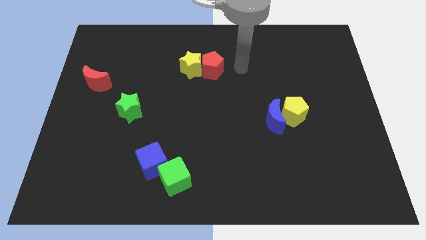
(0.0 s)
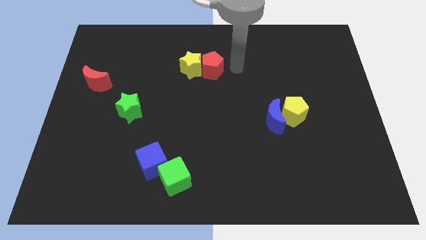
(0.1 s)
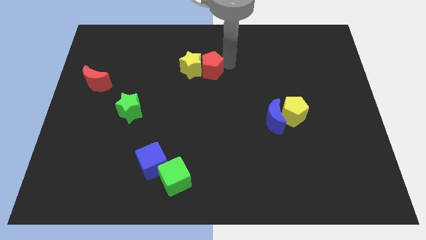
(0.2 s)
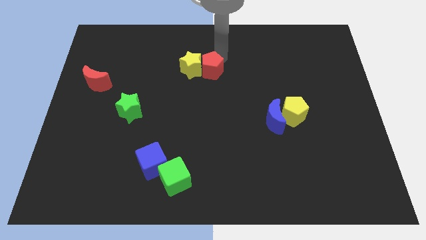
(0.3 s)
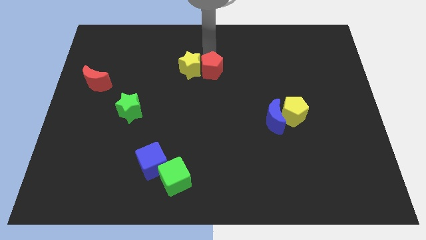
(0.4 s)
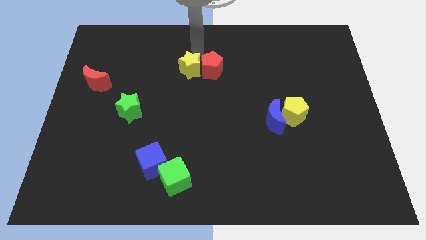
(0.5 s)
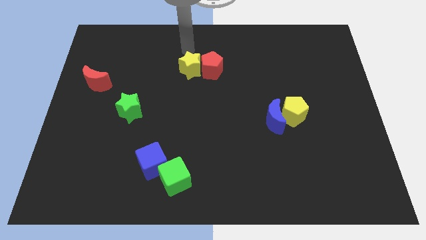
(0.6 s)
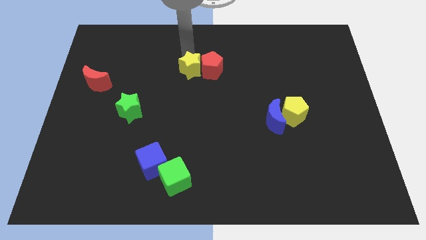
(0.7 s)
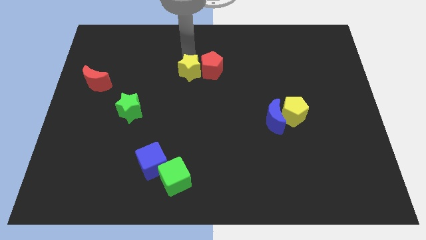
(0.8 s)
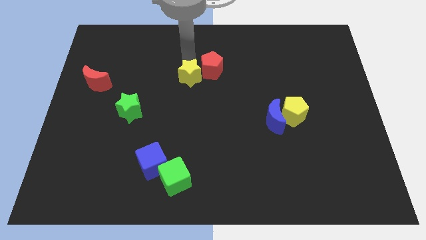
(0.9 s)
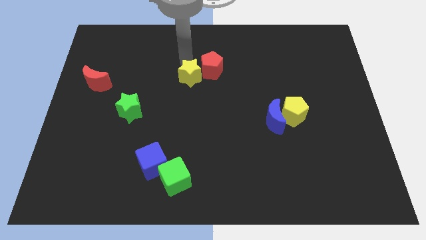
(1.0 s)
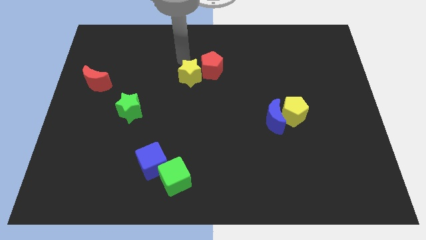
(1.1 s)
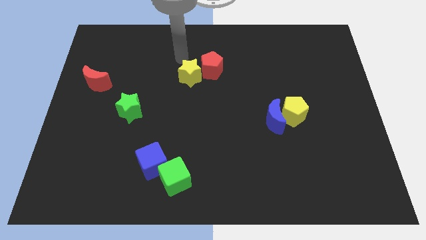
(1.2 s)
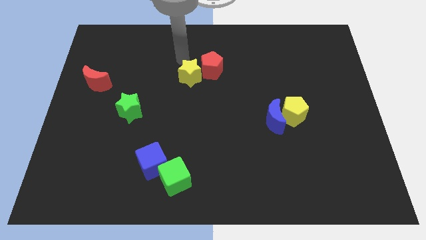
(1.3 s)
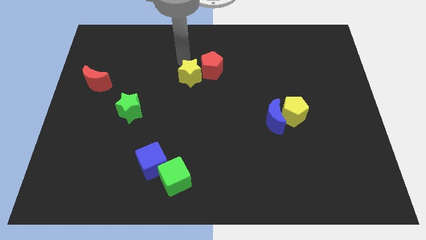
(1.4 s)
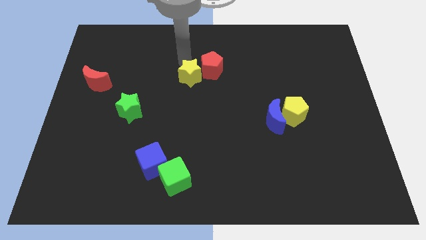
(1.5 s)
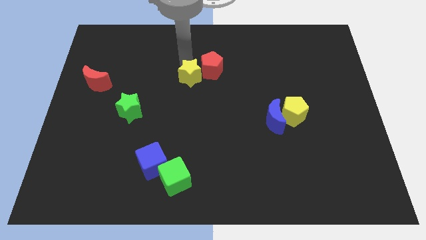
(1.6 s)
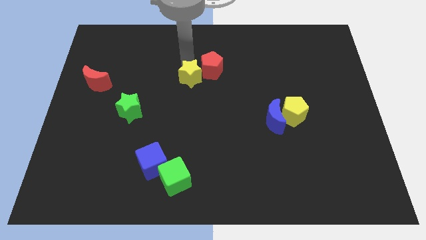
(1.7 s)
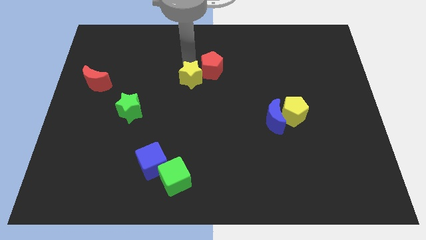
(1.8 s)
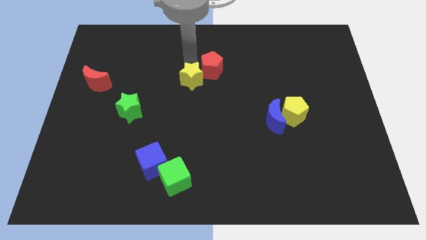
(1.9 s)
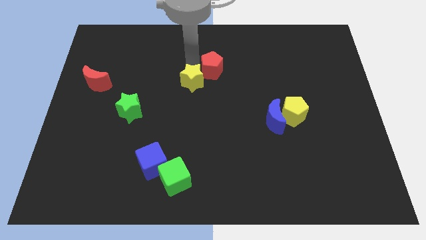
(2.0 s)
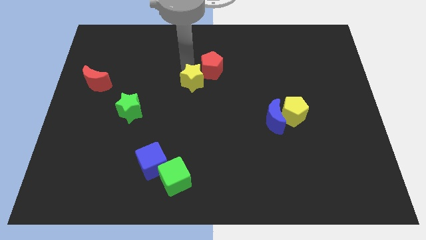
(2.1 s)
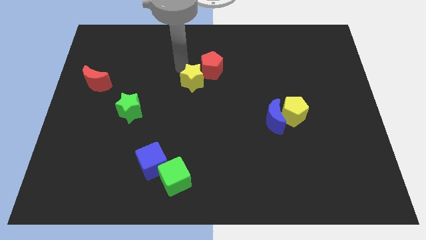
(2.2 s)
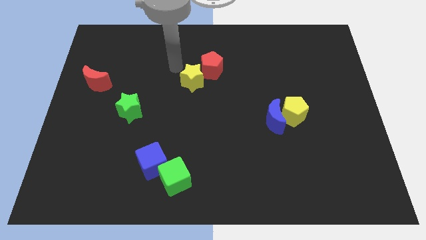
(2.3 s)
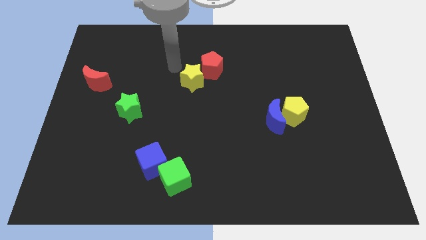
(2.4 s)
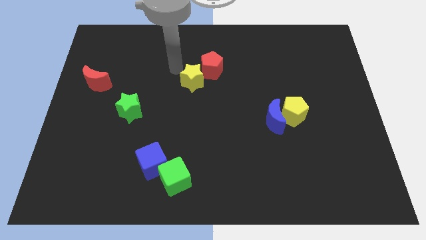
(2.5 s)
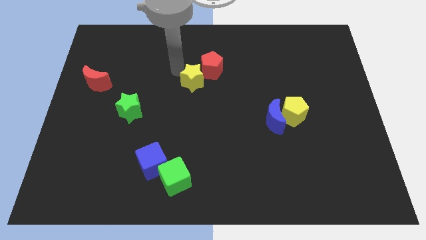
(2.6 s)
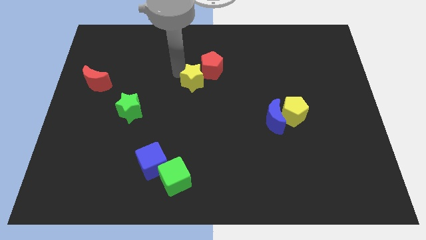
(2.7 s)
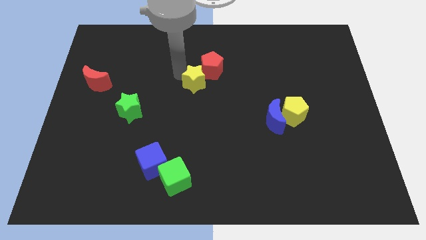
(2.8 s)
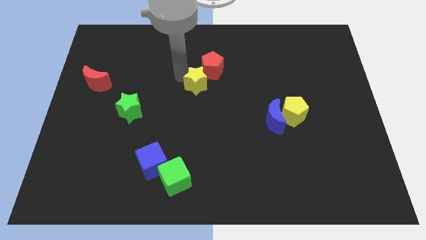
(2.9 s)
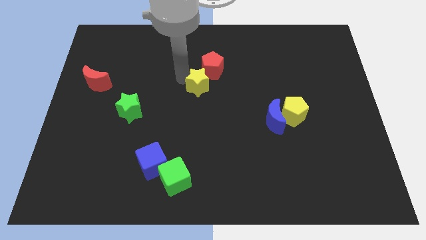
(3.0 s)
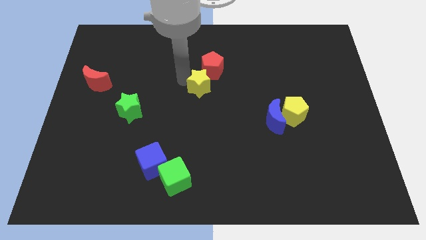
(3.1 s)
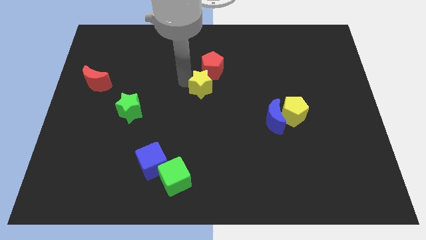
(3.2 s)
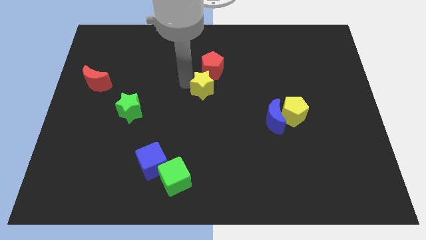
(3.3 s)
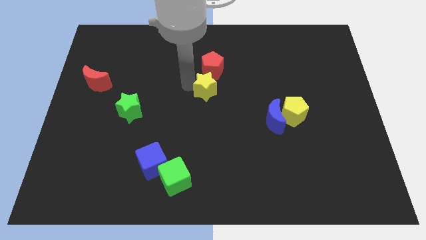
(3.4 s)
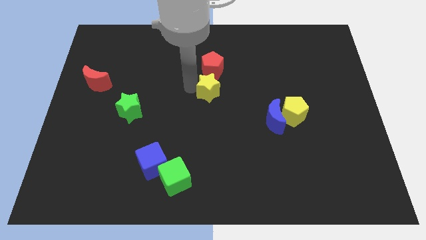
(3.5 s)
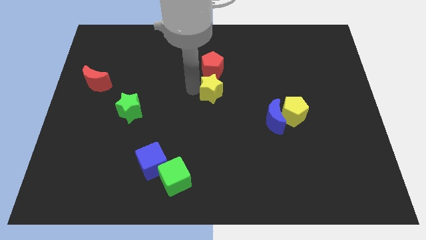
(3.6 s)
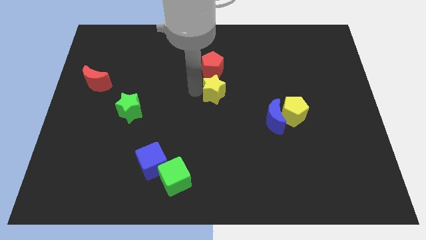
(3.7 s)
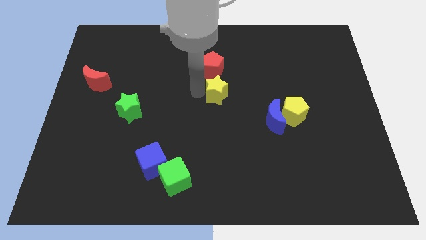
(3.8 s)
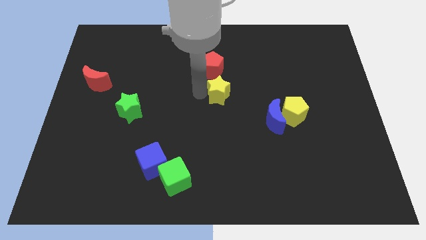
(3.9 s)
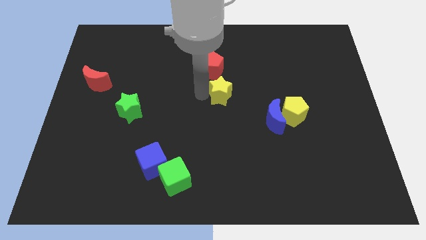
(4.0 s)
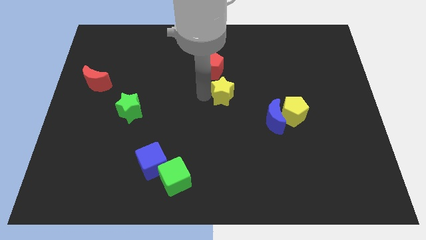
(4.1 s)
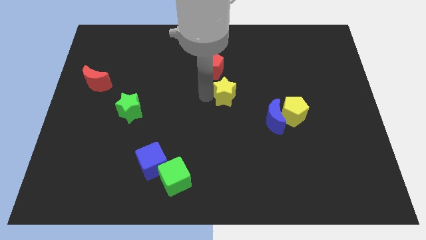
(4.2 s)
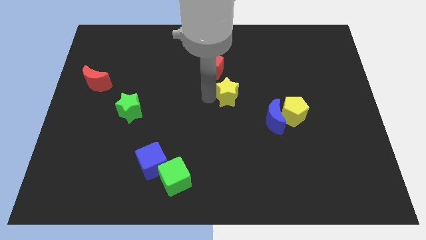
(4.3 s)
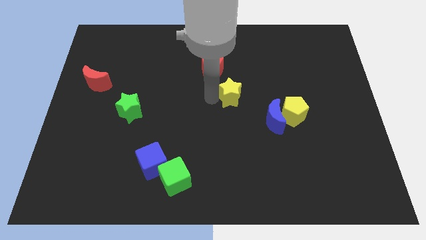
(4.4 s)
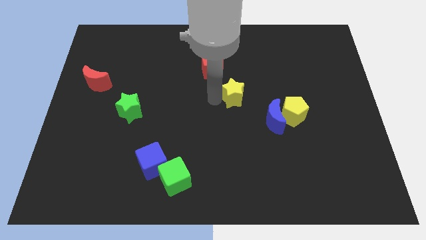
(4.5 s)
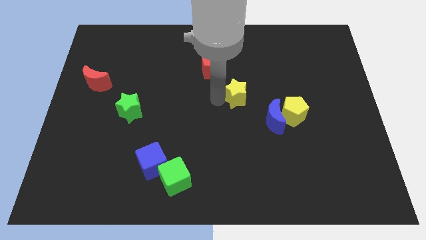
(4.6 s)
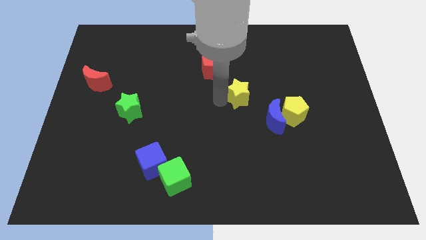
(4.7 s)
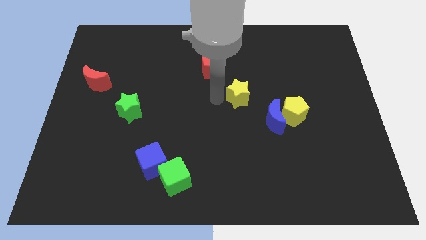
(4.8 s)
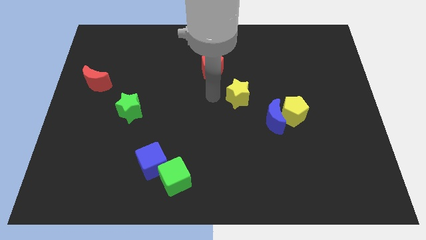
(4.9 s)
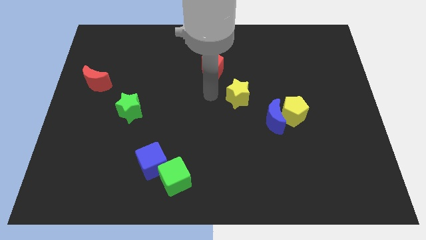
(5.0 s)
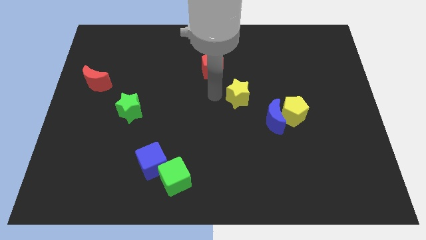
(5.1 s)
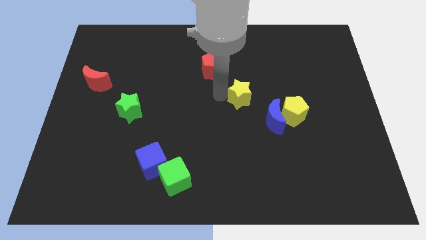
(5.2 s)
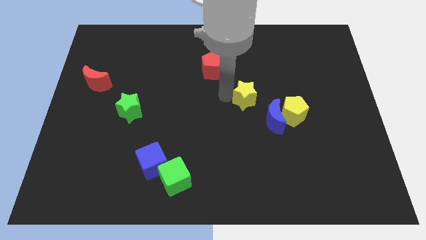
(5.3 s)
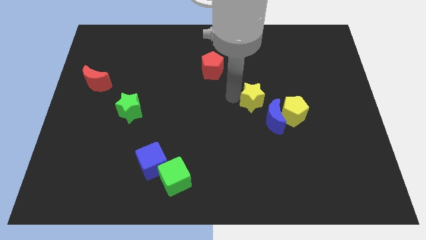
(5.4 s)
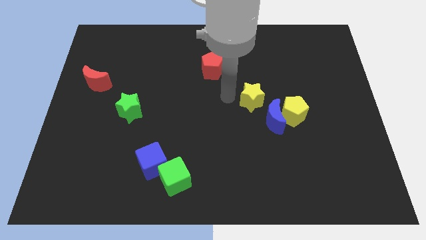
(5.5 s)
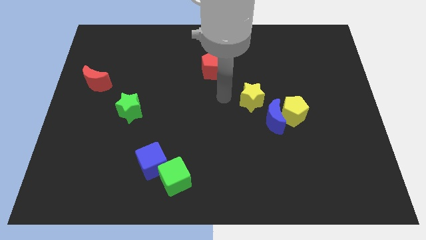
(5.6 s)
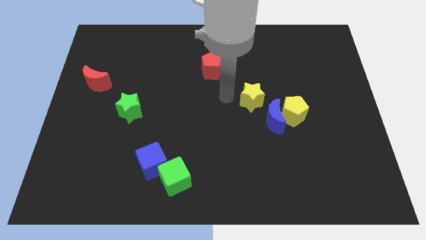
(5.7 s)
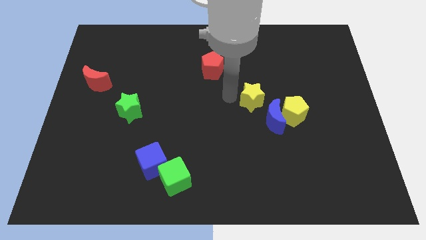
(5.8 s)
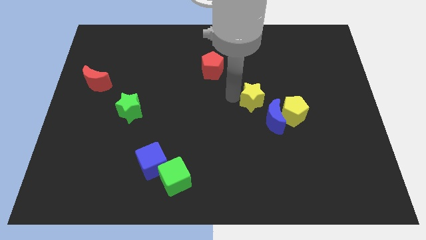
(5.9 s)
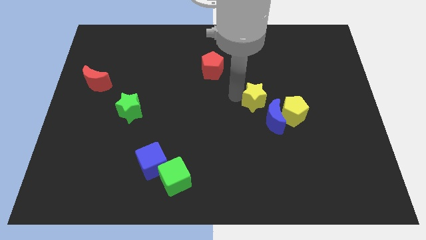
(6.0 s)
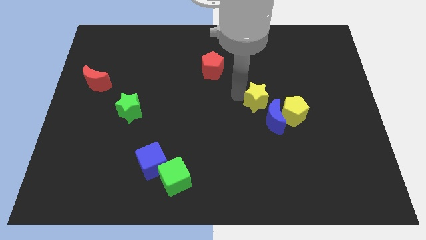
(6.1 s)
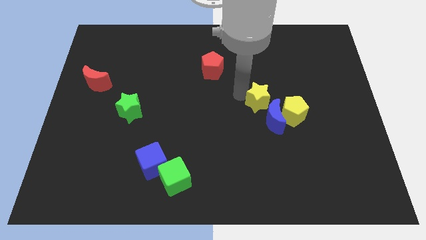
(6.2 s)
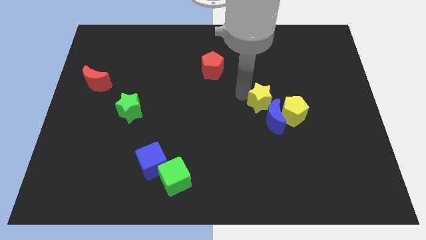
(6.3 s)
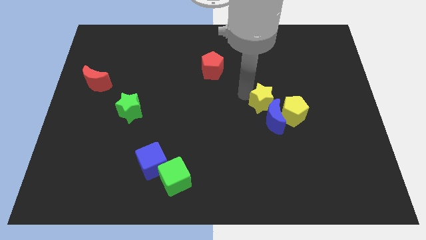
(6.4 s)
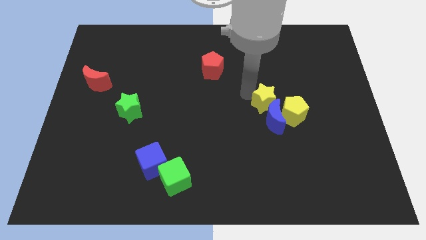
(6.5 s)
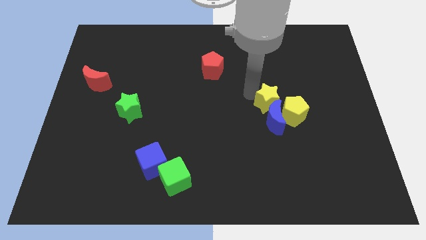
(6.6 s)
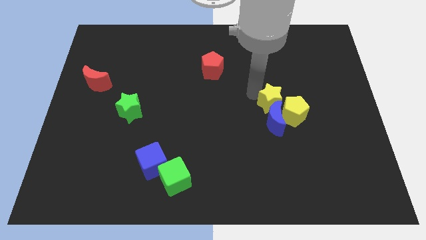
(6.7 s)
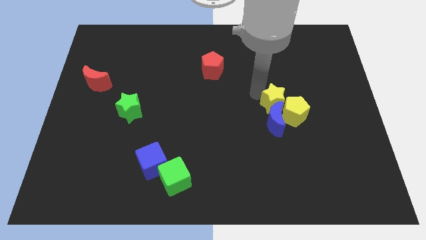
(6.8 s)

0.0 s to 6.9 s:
move the yellow star next to the yellow pentagon

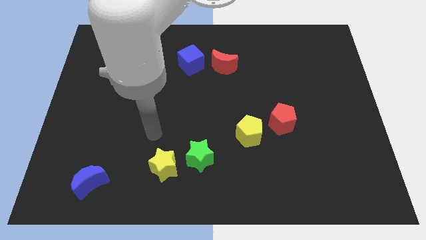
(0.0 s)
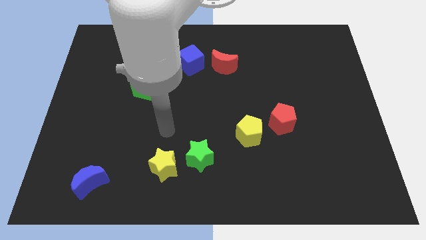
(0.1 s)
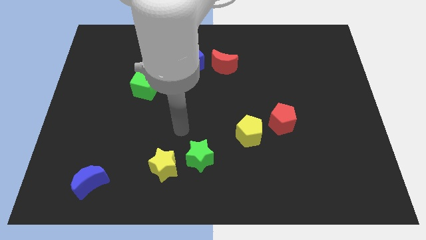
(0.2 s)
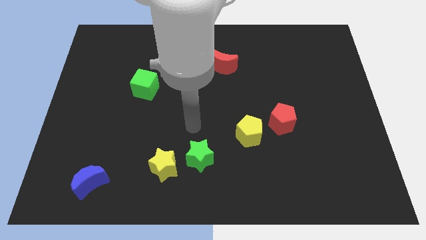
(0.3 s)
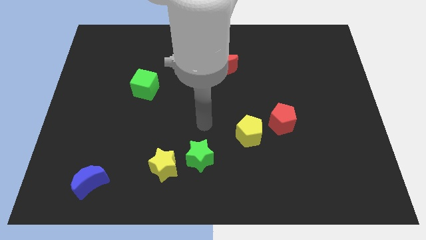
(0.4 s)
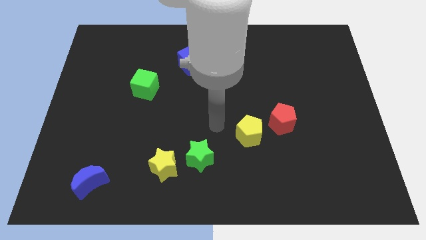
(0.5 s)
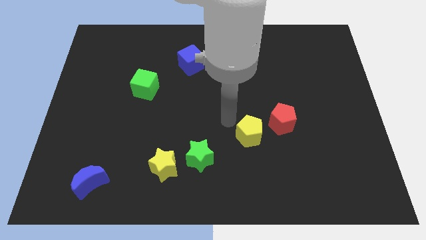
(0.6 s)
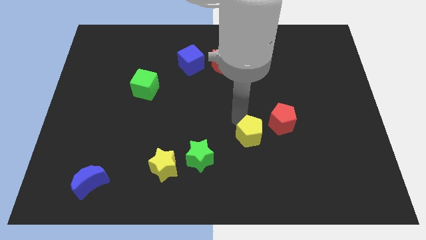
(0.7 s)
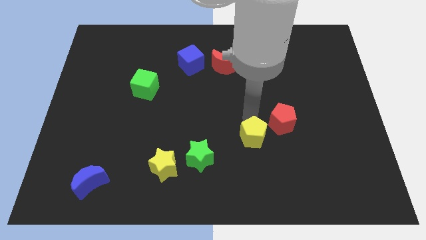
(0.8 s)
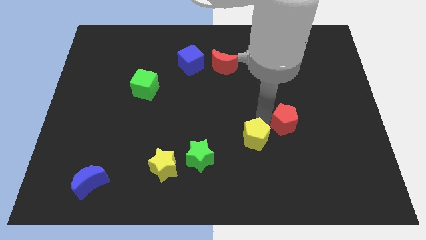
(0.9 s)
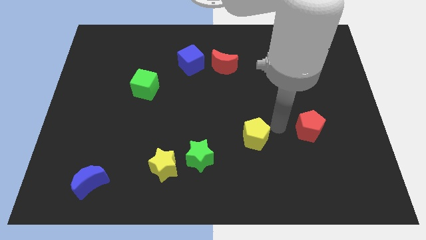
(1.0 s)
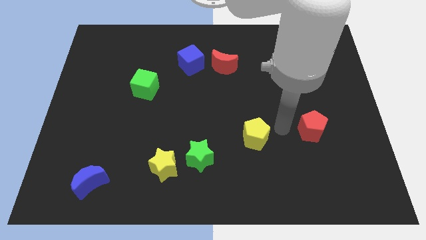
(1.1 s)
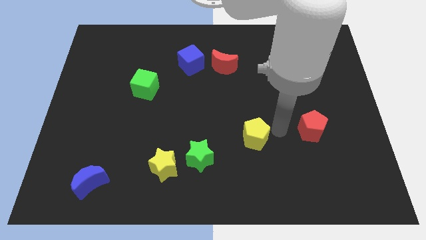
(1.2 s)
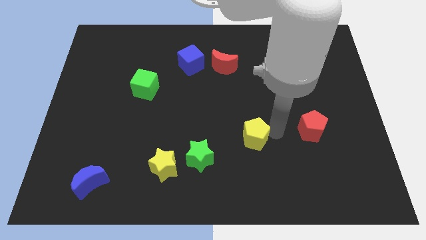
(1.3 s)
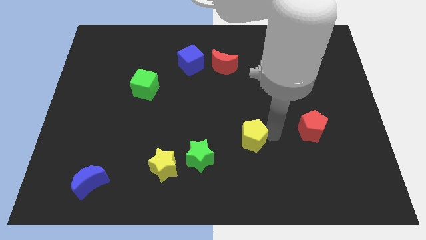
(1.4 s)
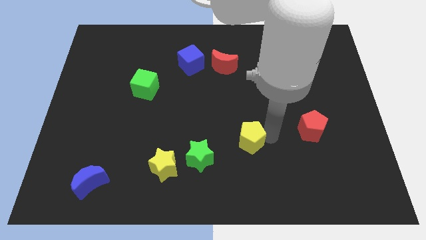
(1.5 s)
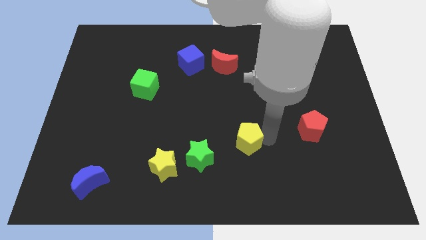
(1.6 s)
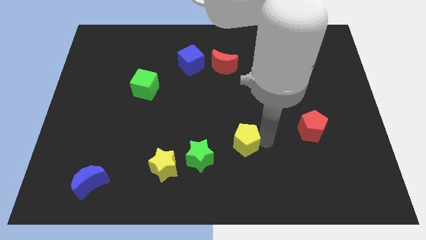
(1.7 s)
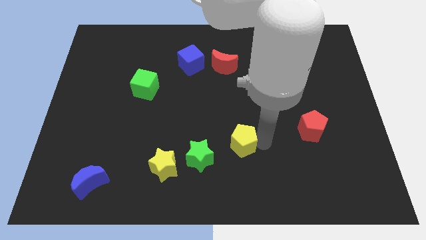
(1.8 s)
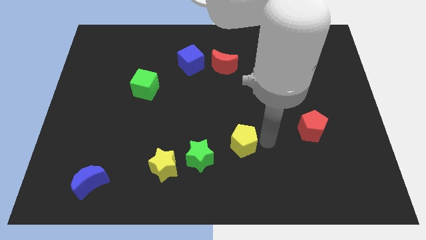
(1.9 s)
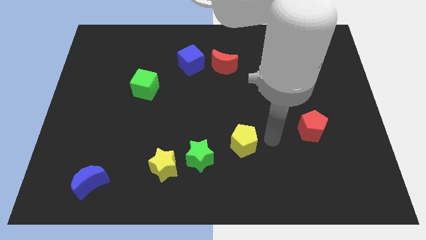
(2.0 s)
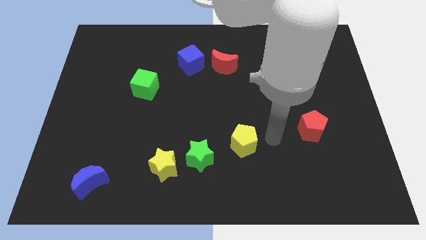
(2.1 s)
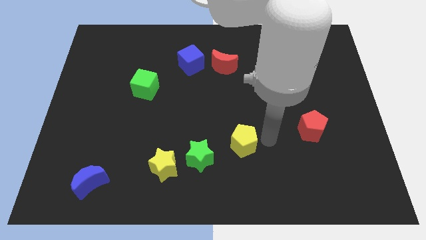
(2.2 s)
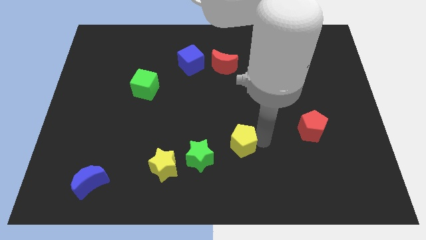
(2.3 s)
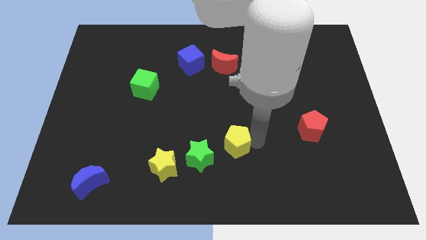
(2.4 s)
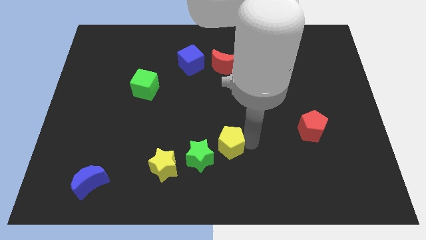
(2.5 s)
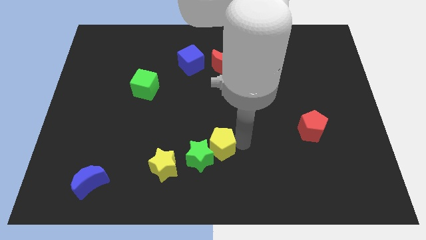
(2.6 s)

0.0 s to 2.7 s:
put the yellow pentagon next to the green star
